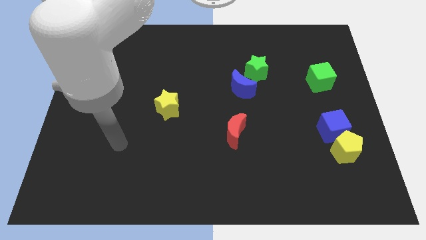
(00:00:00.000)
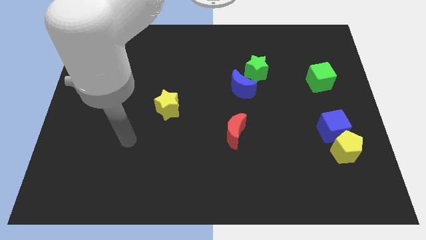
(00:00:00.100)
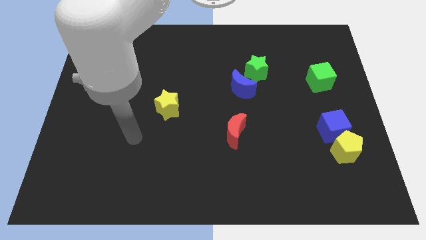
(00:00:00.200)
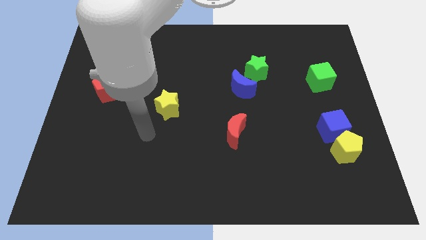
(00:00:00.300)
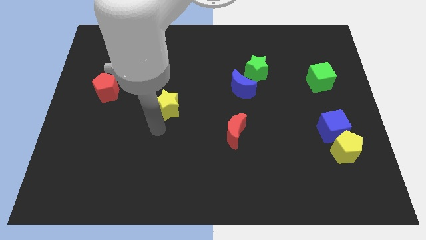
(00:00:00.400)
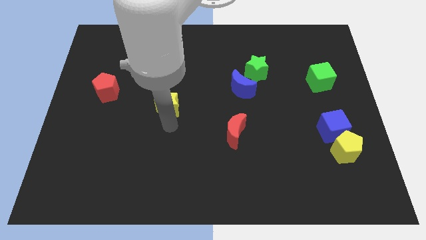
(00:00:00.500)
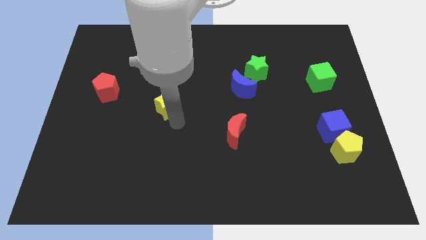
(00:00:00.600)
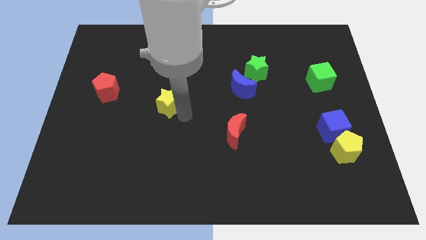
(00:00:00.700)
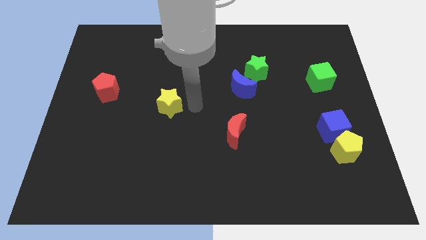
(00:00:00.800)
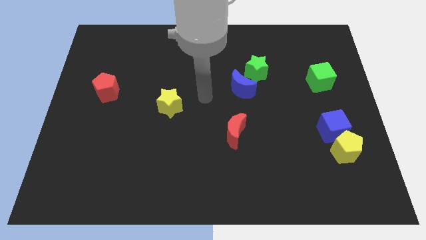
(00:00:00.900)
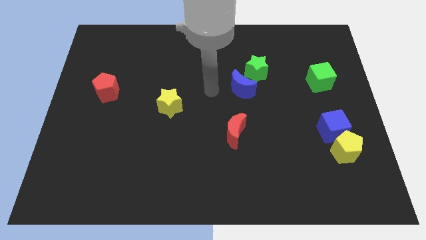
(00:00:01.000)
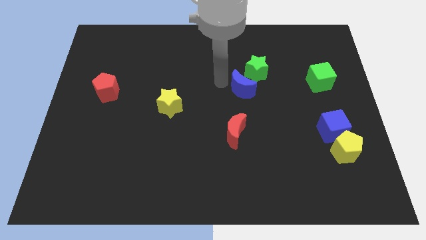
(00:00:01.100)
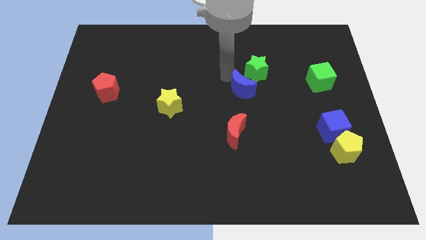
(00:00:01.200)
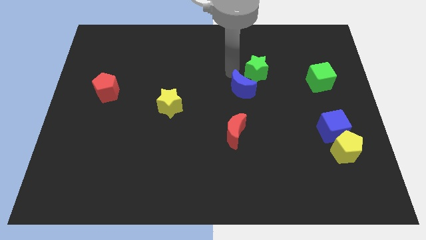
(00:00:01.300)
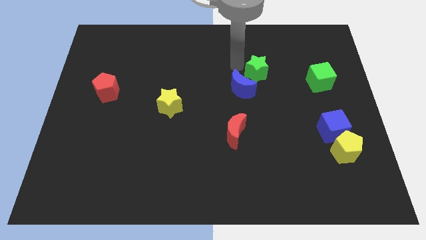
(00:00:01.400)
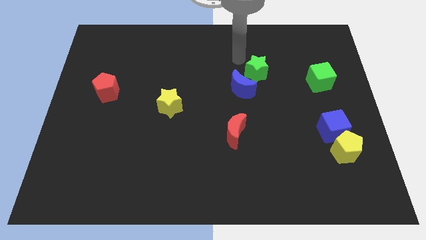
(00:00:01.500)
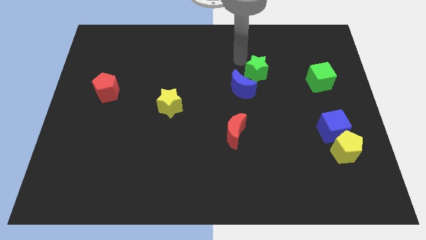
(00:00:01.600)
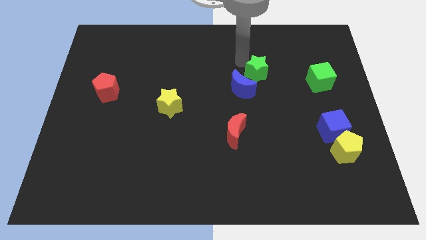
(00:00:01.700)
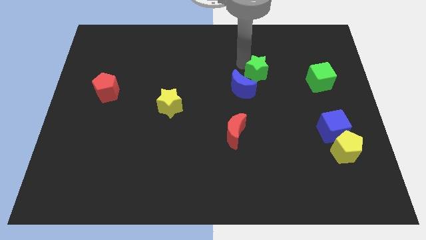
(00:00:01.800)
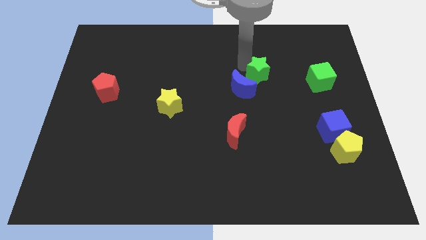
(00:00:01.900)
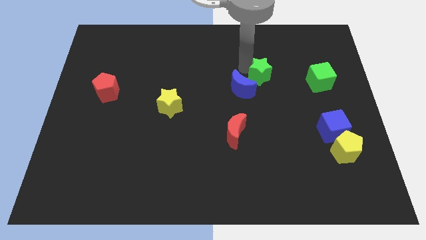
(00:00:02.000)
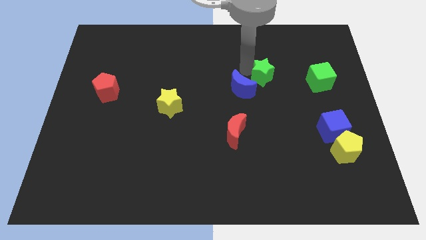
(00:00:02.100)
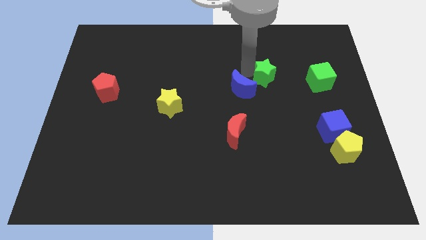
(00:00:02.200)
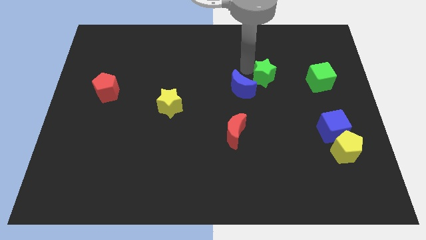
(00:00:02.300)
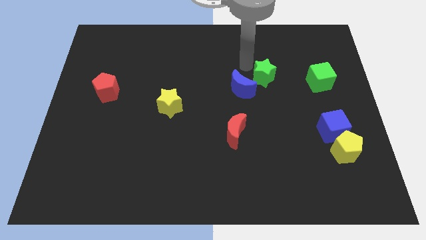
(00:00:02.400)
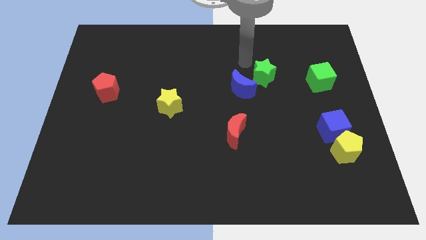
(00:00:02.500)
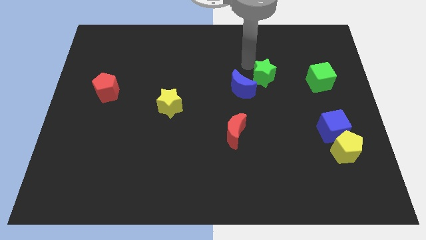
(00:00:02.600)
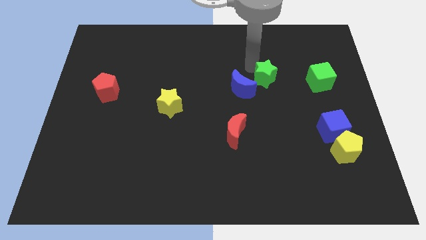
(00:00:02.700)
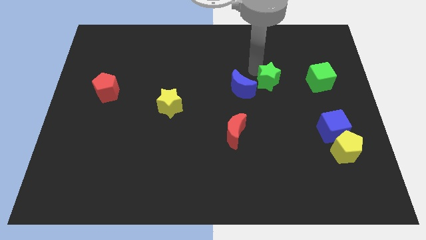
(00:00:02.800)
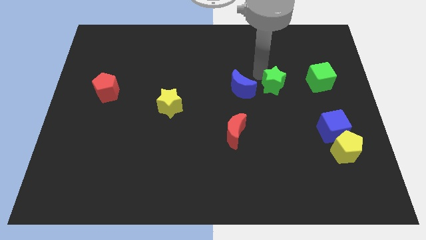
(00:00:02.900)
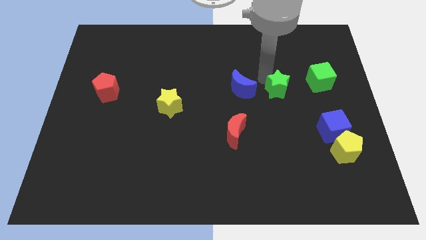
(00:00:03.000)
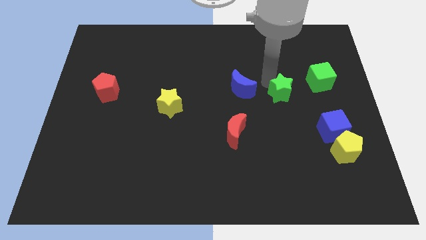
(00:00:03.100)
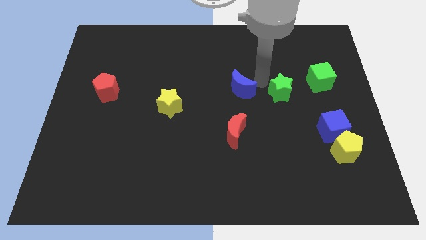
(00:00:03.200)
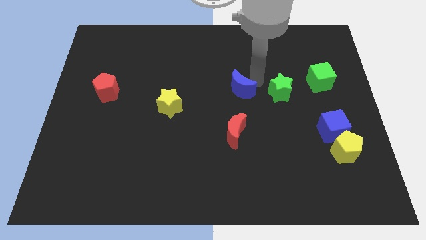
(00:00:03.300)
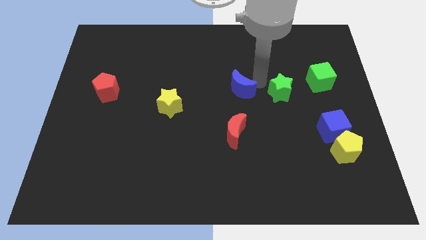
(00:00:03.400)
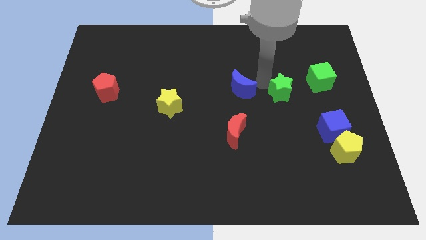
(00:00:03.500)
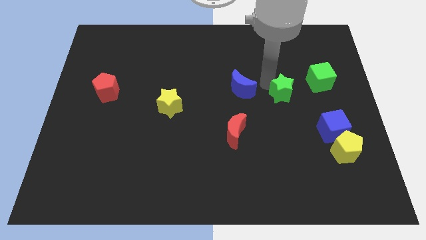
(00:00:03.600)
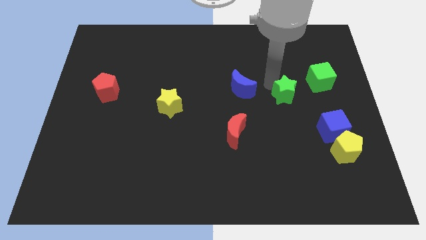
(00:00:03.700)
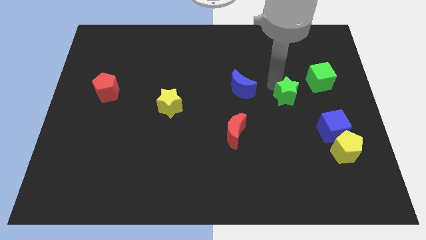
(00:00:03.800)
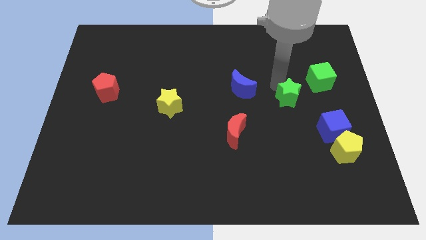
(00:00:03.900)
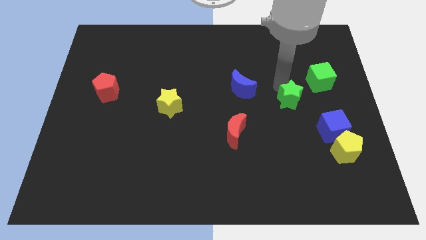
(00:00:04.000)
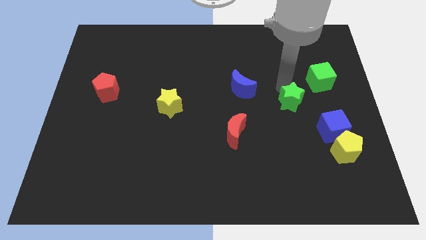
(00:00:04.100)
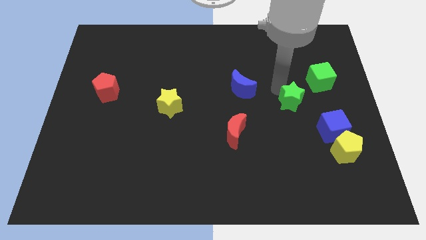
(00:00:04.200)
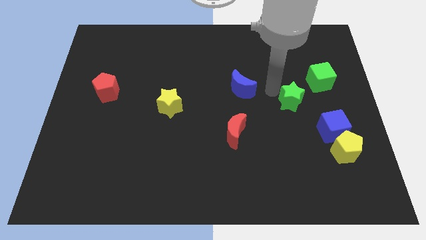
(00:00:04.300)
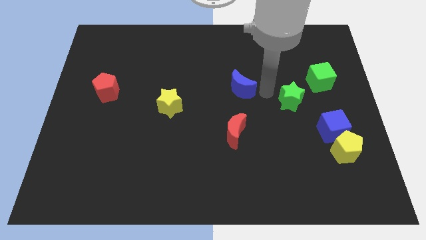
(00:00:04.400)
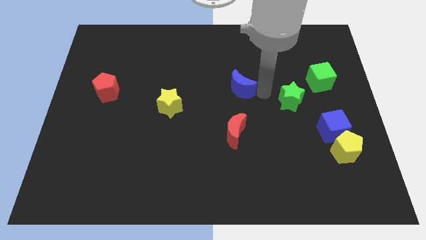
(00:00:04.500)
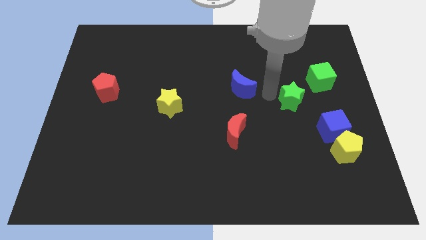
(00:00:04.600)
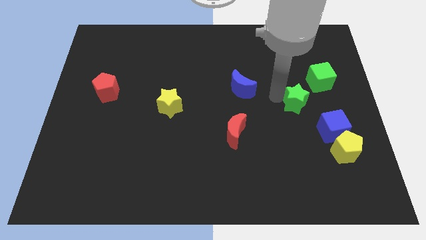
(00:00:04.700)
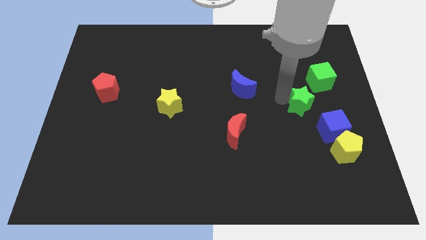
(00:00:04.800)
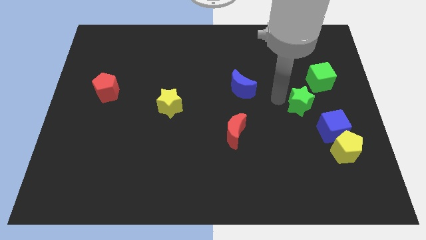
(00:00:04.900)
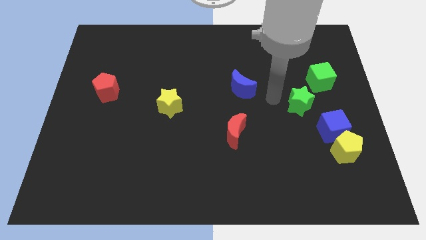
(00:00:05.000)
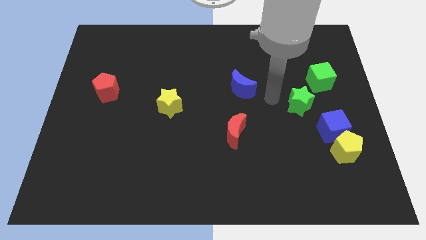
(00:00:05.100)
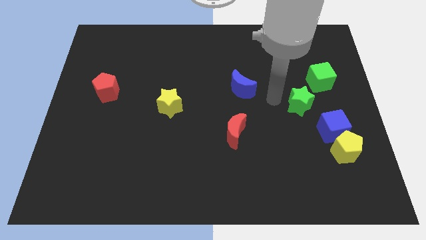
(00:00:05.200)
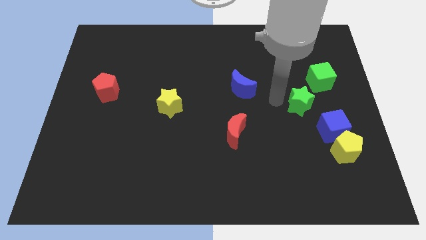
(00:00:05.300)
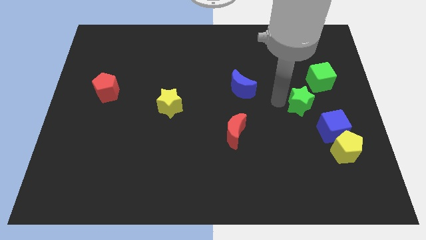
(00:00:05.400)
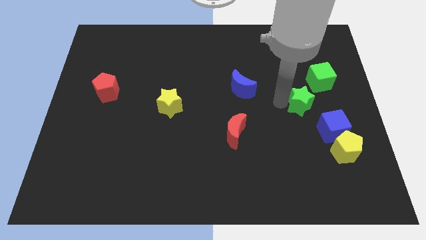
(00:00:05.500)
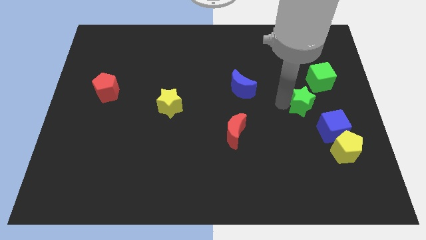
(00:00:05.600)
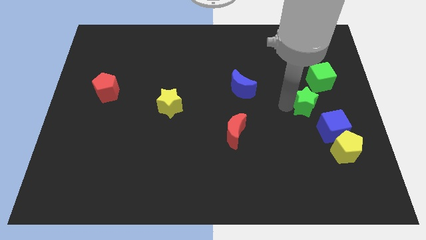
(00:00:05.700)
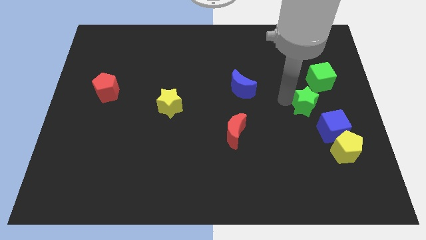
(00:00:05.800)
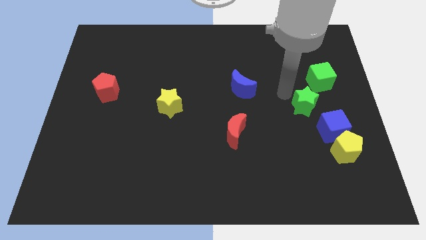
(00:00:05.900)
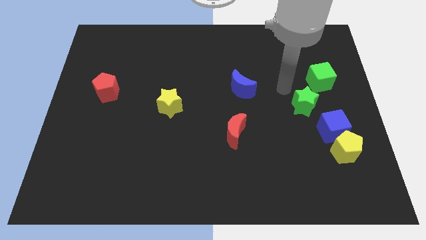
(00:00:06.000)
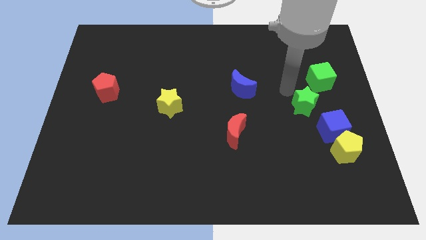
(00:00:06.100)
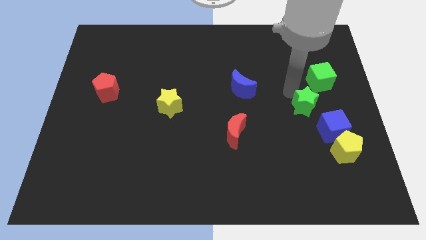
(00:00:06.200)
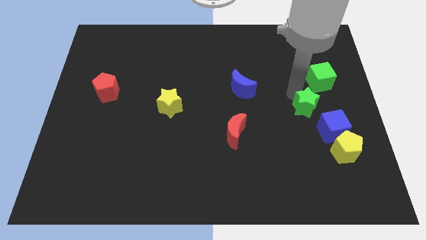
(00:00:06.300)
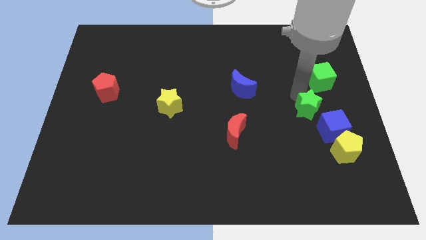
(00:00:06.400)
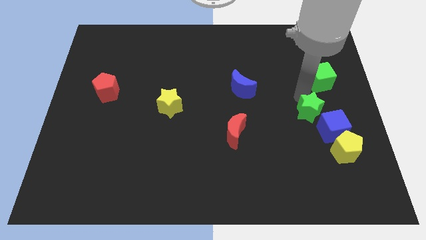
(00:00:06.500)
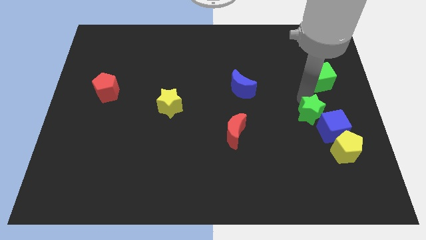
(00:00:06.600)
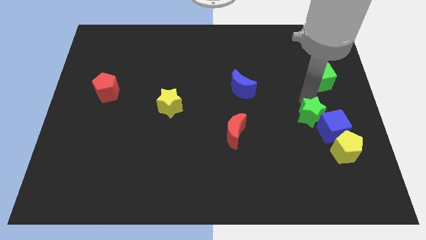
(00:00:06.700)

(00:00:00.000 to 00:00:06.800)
put the green star to the blue cube

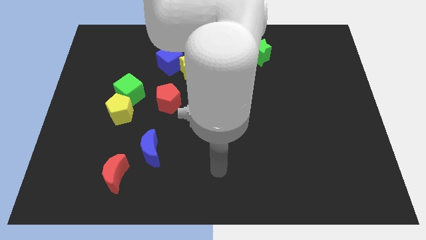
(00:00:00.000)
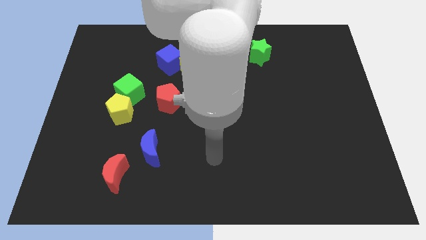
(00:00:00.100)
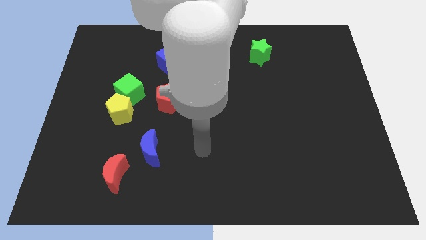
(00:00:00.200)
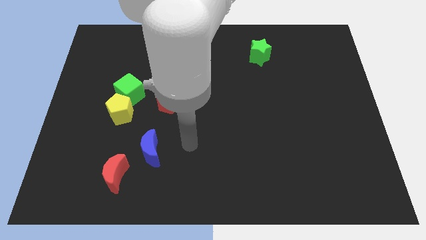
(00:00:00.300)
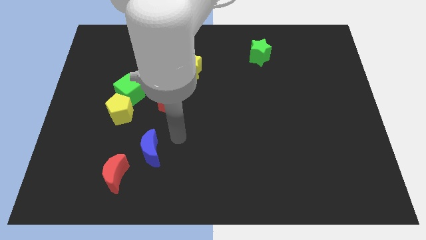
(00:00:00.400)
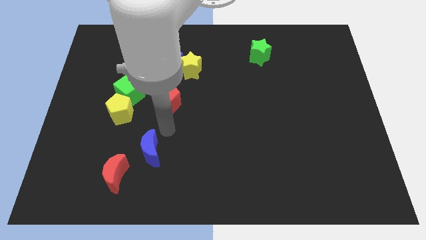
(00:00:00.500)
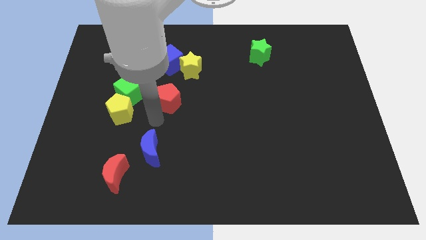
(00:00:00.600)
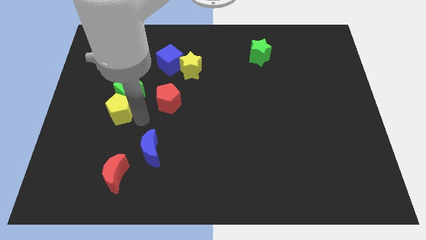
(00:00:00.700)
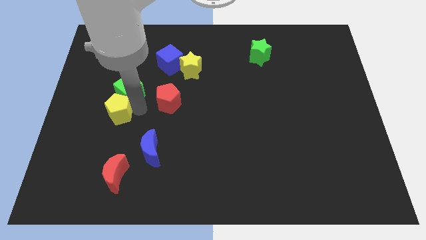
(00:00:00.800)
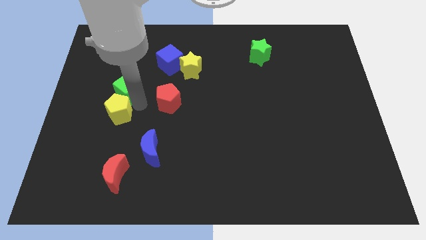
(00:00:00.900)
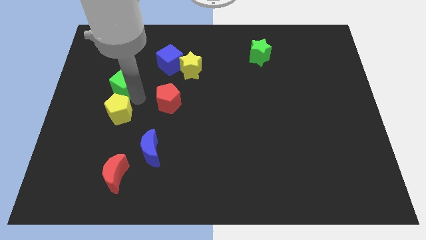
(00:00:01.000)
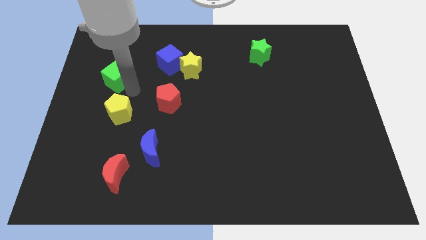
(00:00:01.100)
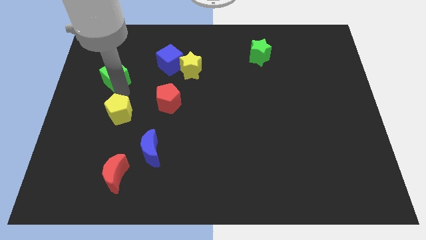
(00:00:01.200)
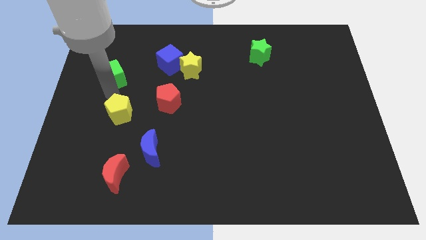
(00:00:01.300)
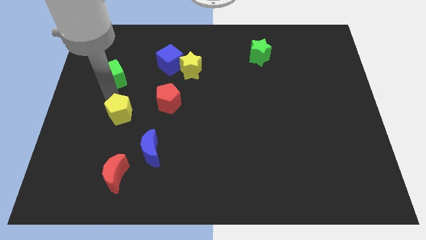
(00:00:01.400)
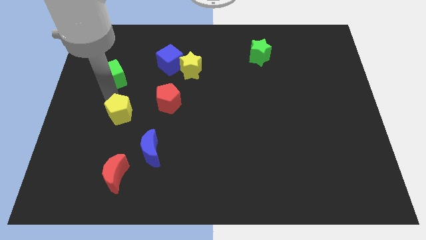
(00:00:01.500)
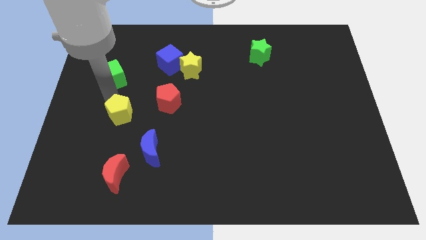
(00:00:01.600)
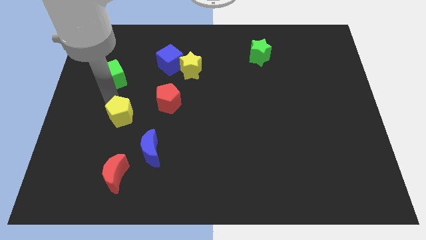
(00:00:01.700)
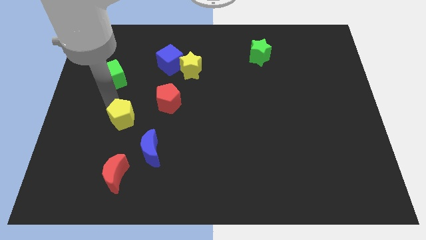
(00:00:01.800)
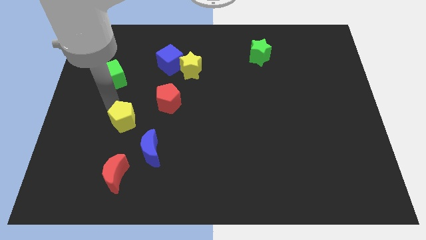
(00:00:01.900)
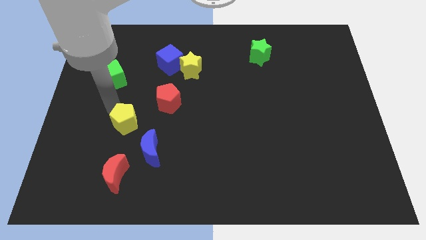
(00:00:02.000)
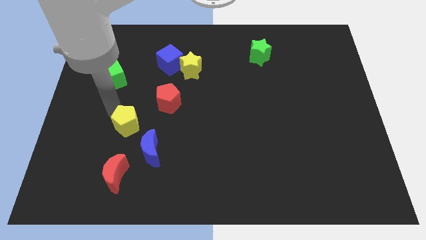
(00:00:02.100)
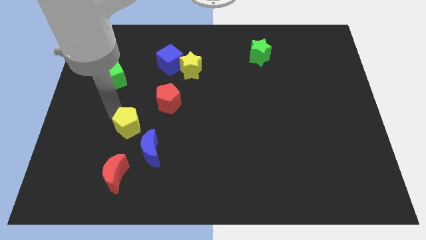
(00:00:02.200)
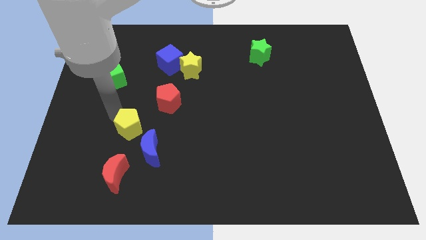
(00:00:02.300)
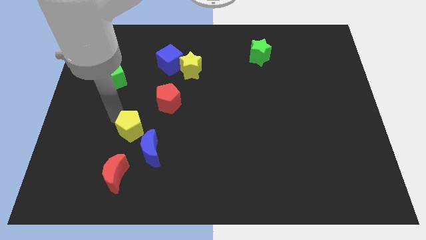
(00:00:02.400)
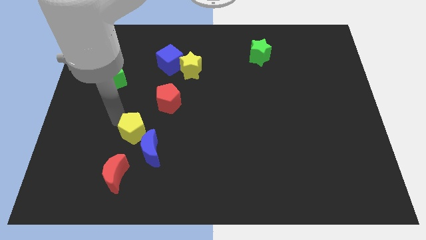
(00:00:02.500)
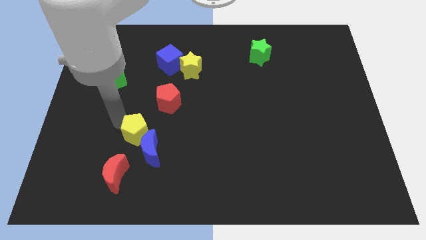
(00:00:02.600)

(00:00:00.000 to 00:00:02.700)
put the yellow pentagon to the blue moon
